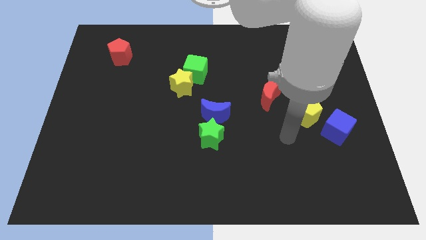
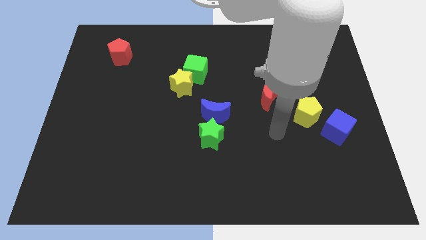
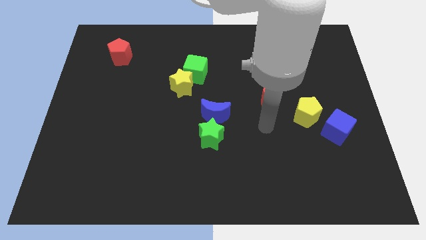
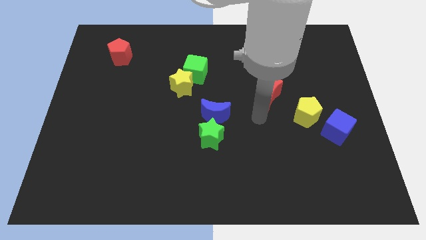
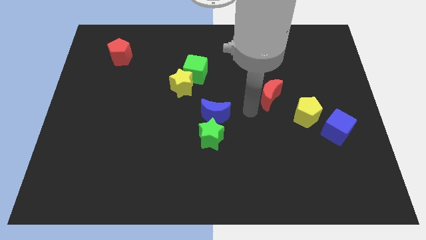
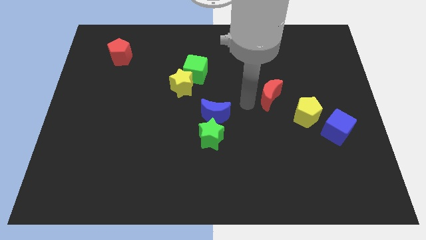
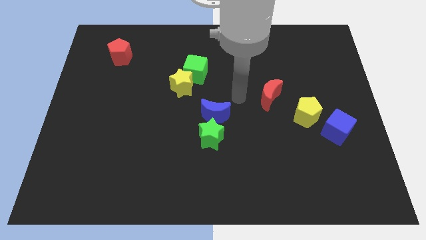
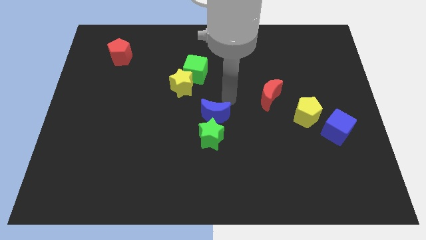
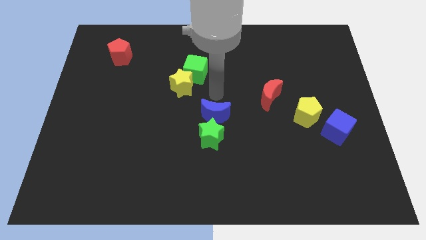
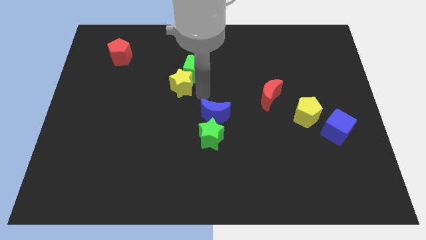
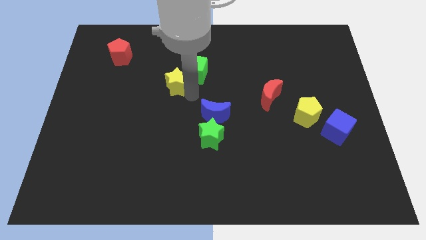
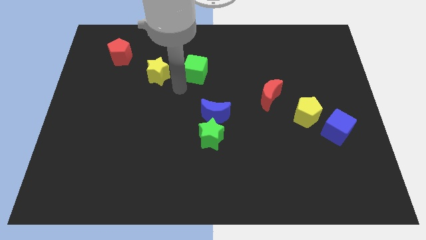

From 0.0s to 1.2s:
move the green cube away from the yellow star

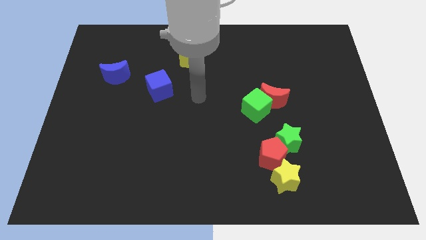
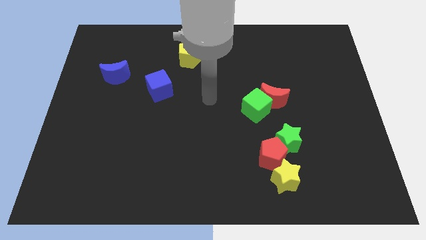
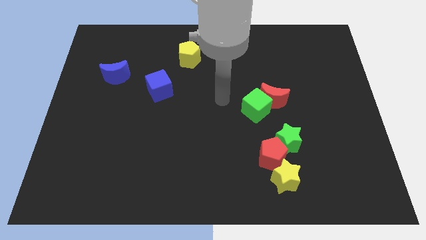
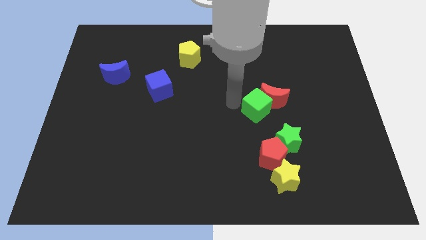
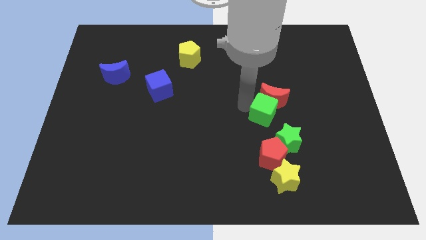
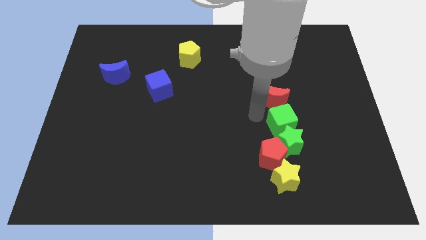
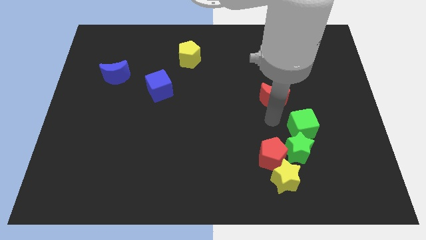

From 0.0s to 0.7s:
move the red moon away from the green cube

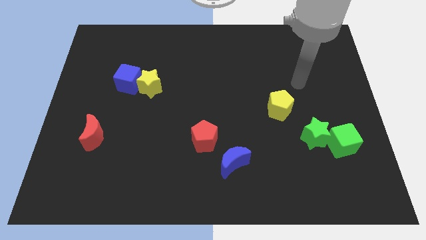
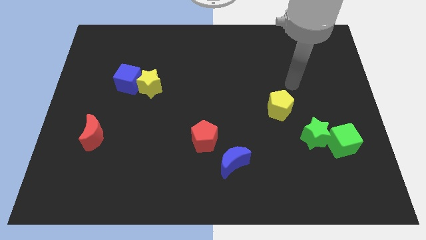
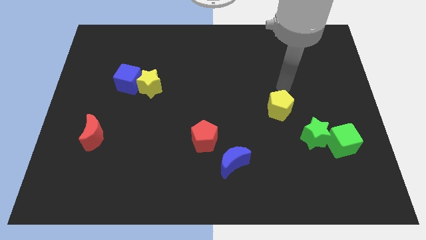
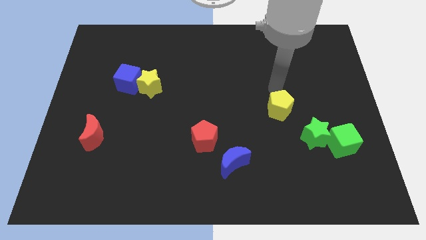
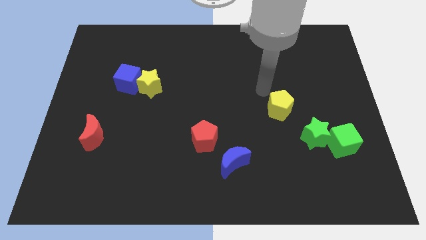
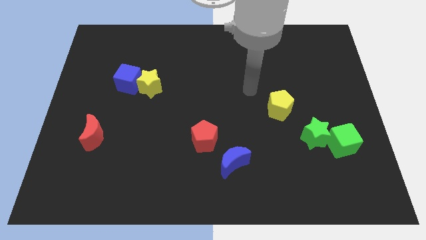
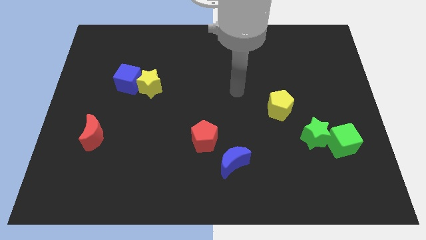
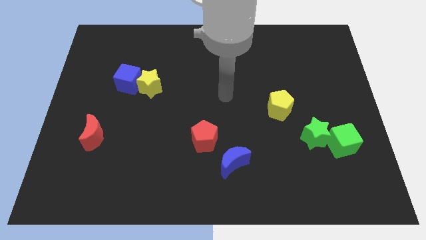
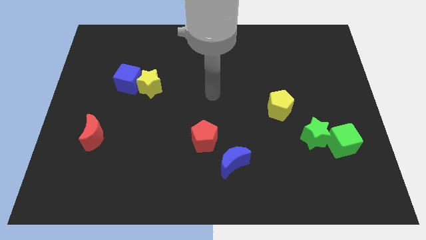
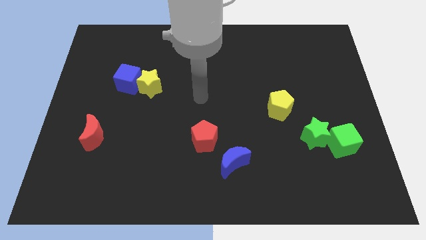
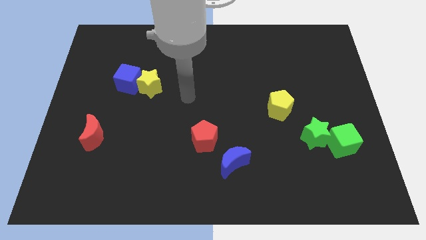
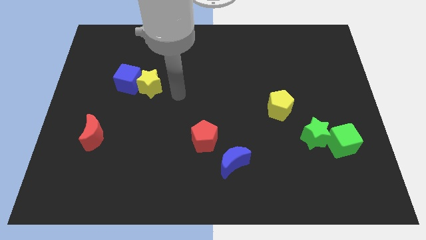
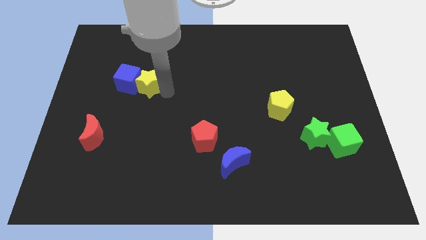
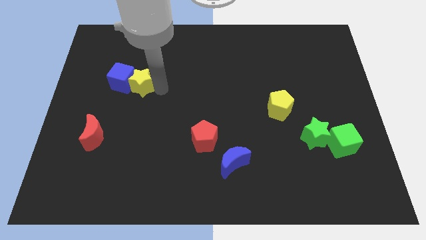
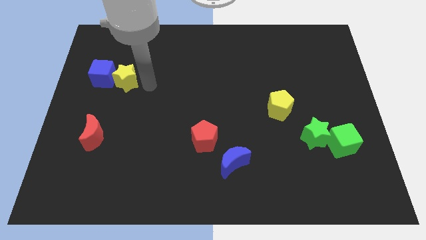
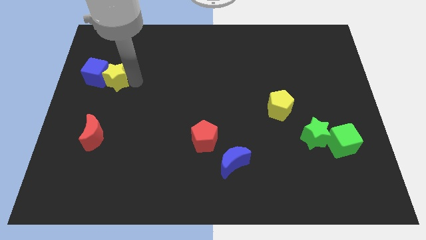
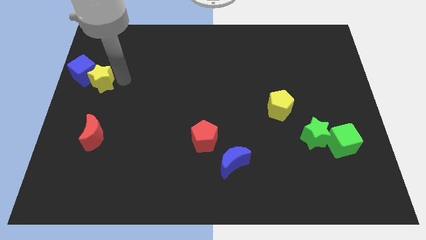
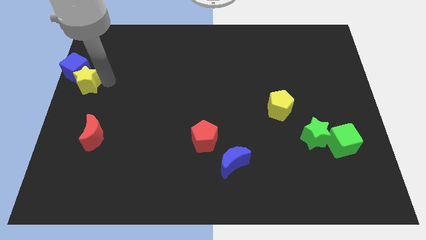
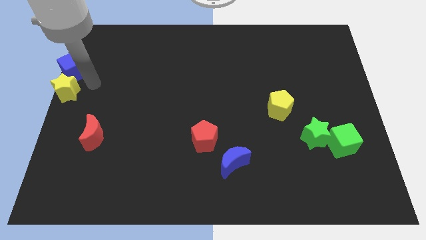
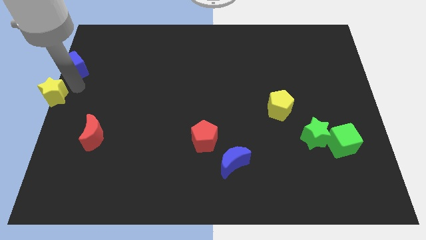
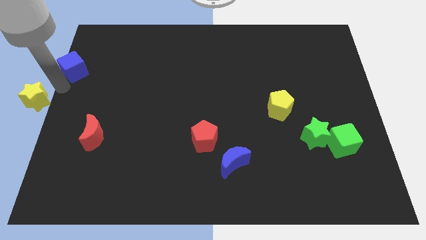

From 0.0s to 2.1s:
pull the blue cube apart from the yellow star

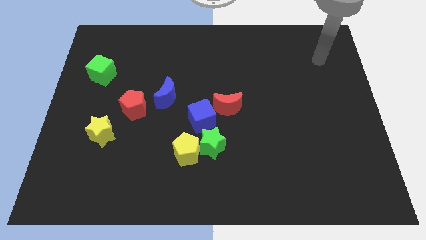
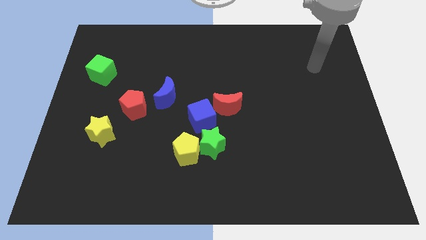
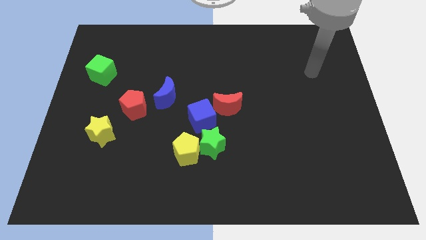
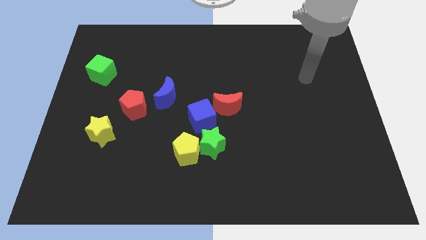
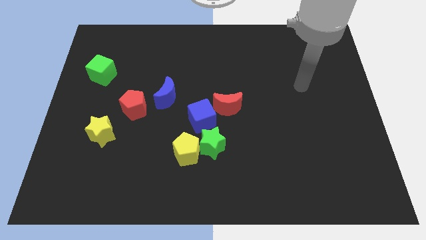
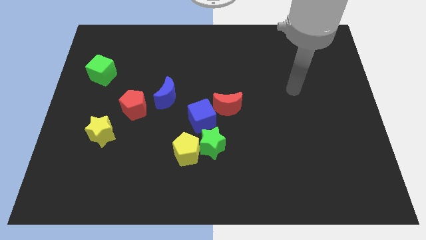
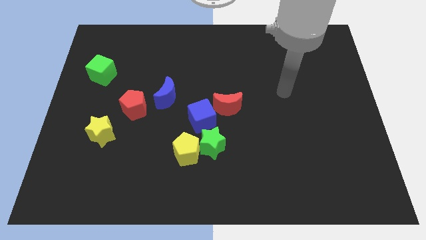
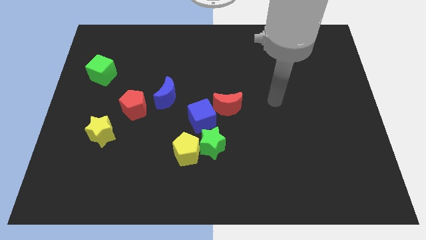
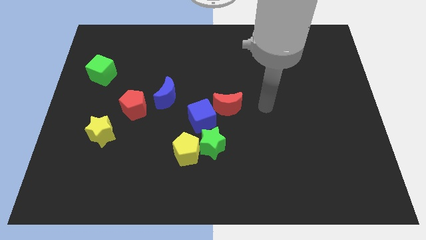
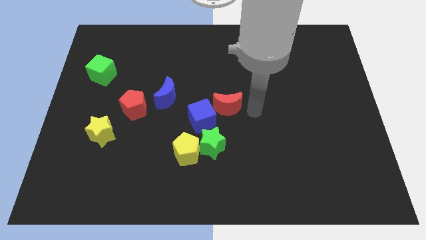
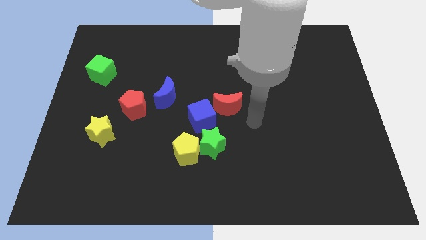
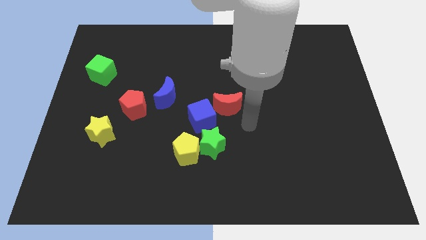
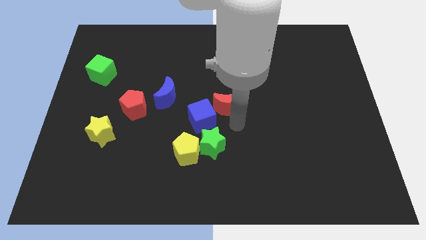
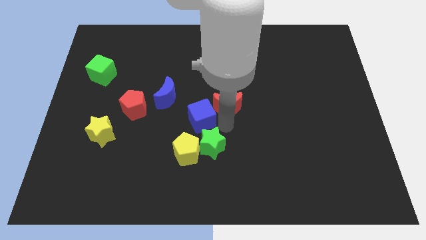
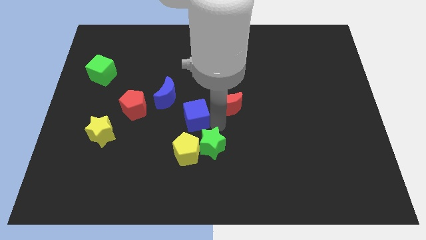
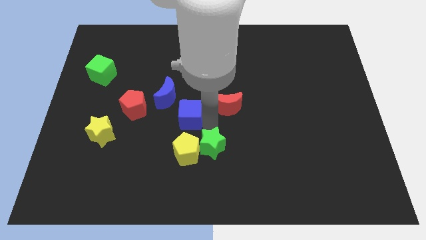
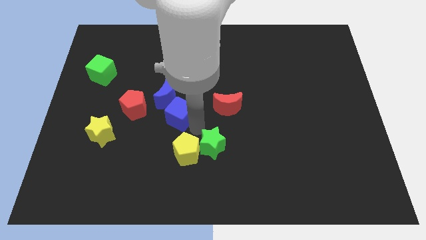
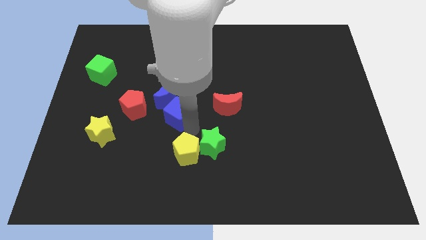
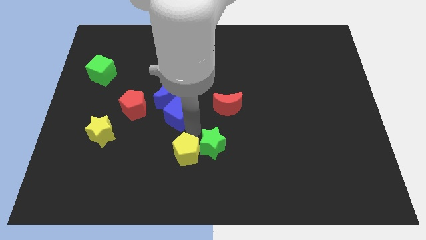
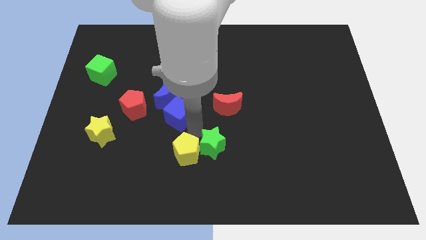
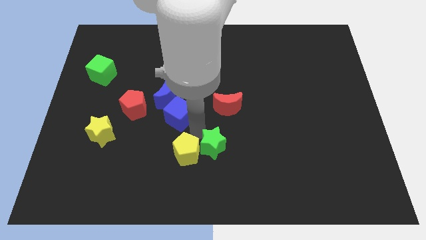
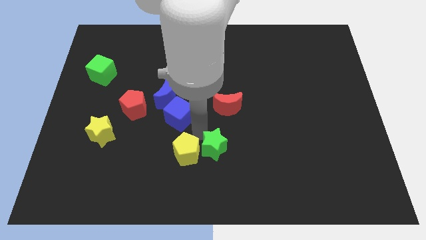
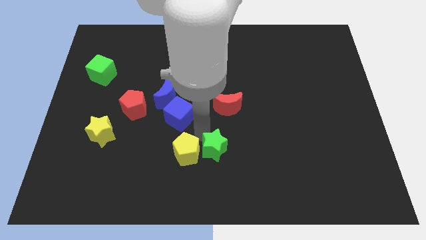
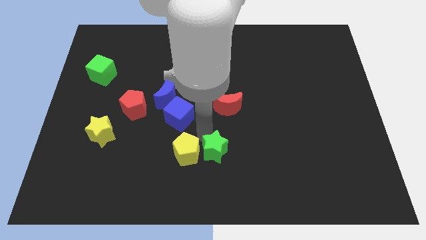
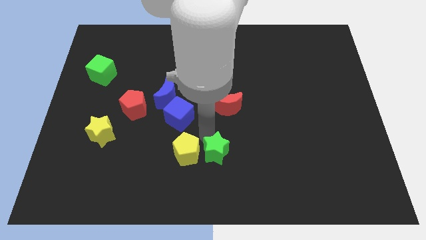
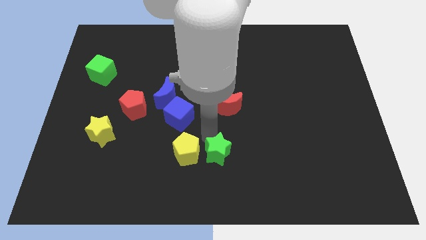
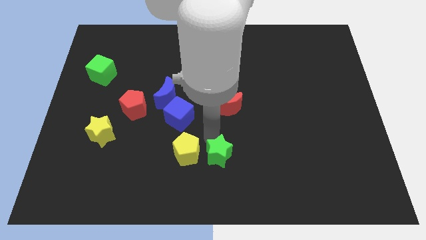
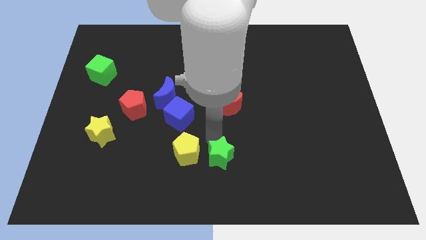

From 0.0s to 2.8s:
separate the green star from the yellow pentagon and blue cube

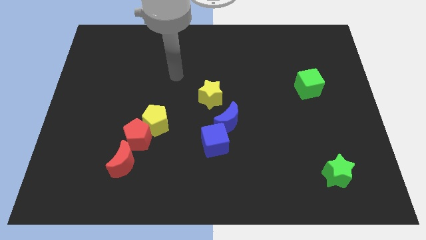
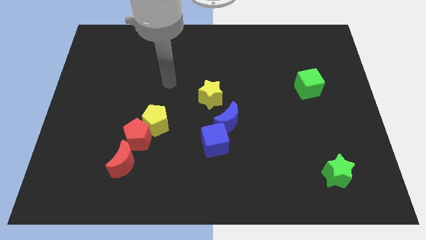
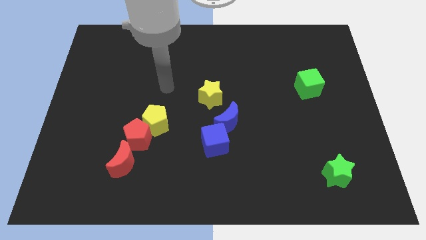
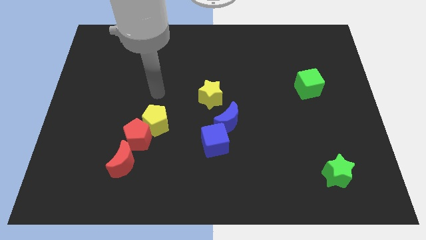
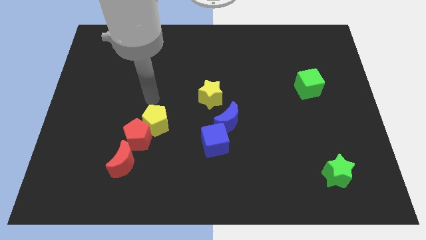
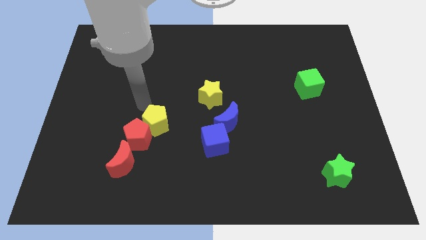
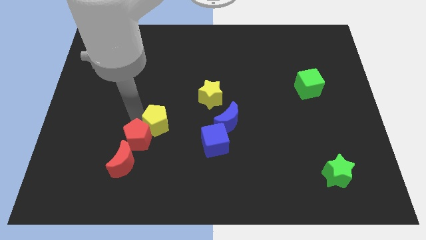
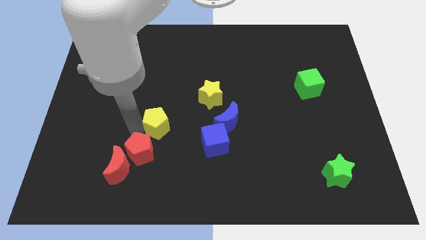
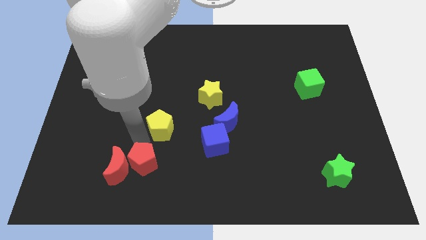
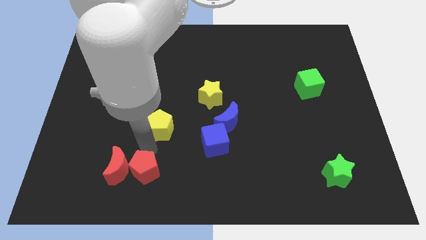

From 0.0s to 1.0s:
pull the yellow pentagon apart from the red pentagon

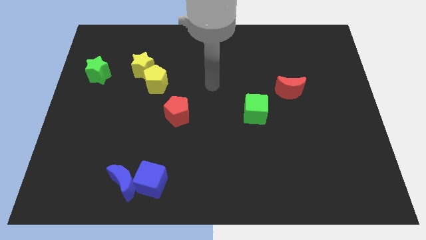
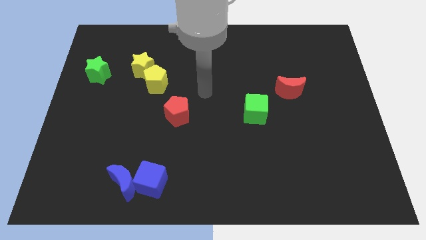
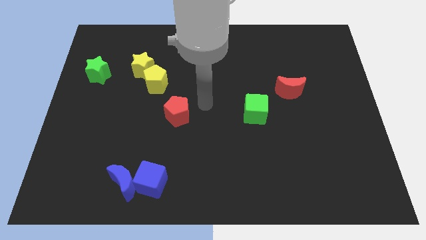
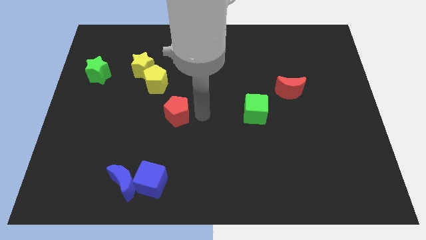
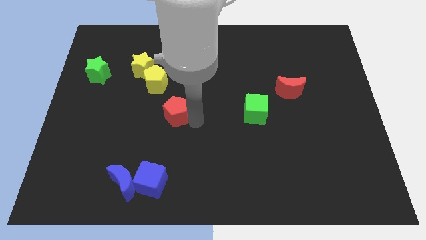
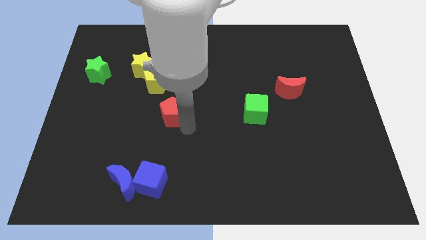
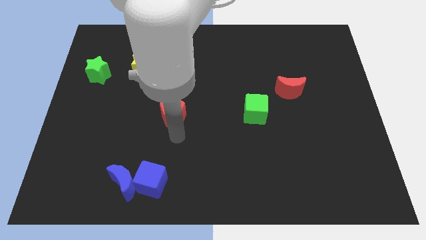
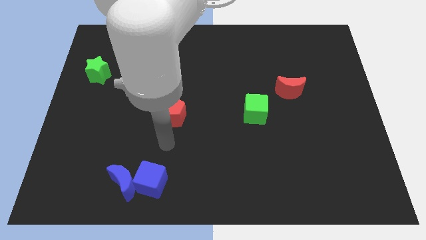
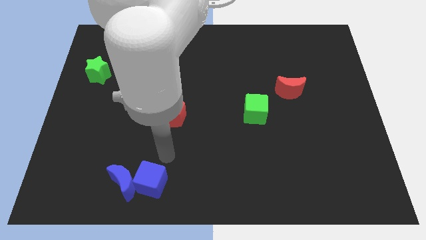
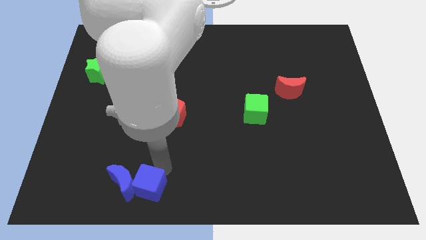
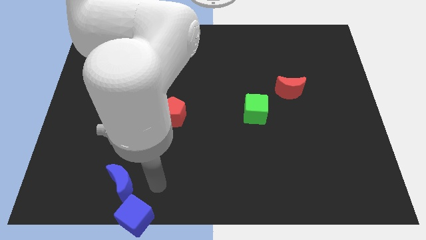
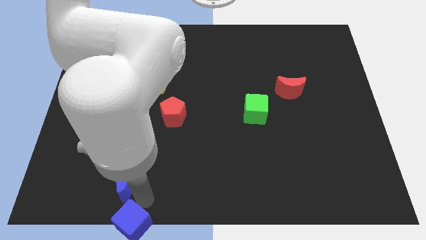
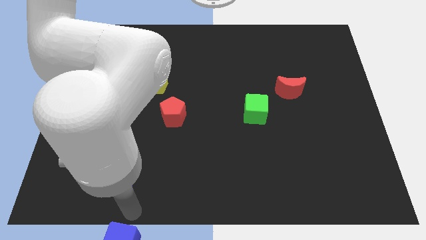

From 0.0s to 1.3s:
separate the blue moon from the blue cube

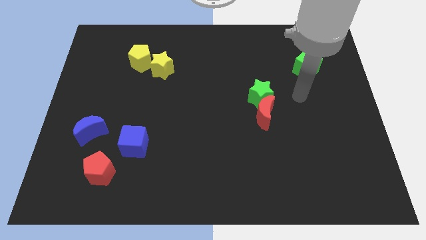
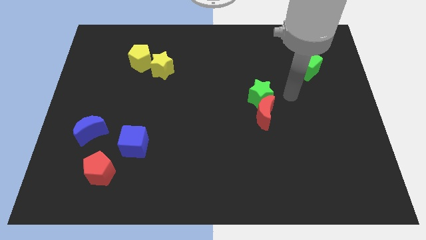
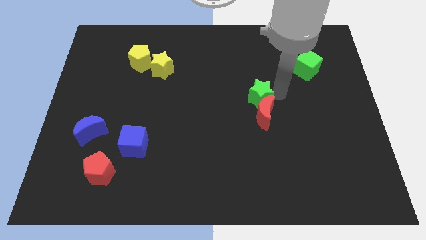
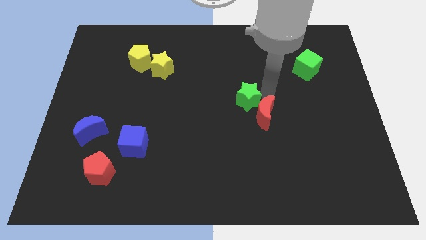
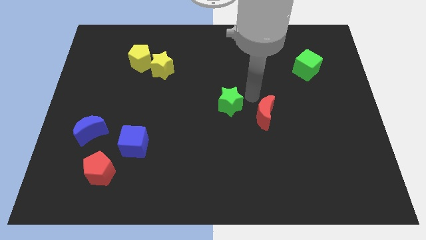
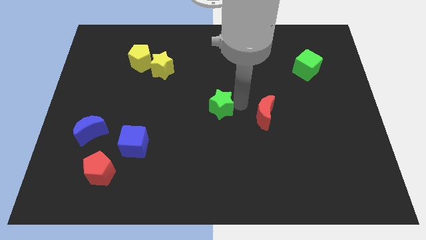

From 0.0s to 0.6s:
move the red moon away from the green star
